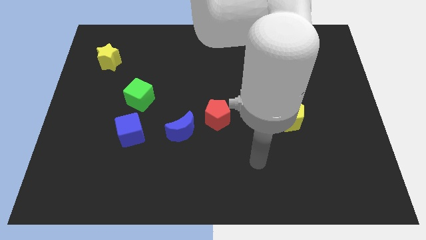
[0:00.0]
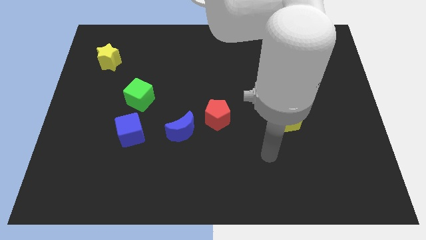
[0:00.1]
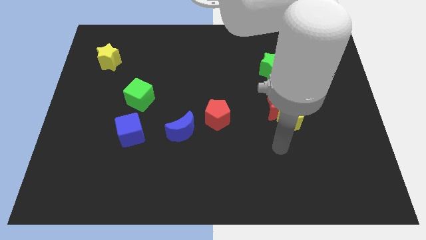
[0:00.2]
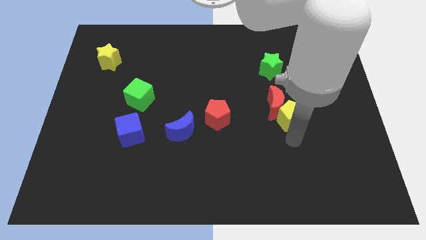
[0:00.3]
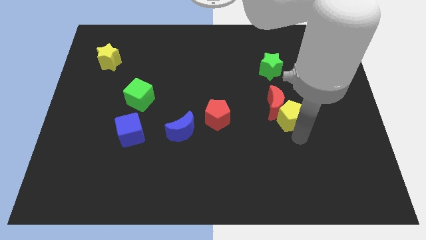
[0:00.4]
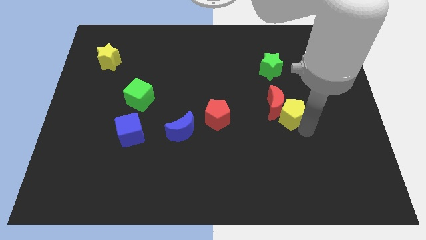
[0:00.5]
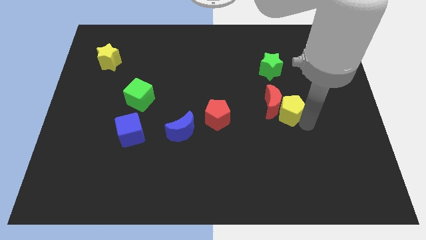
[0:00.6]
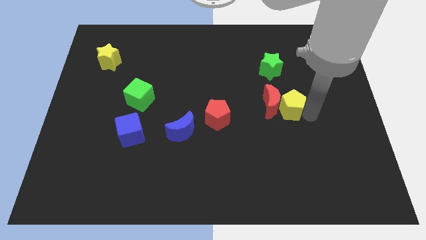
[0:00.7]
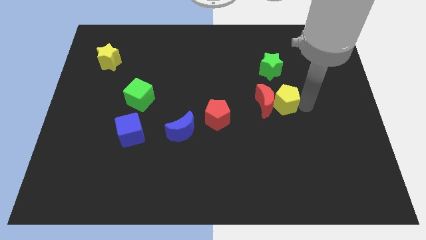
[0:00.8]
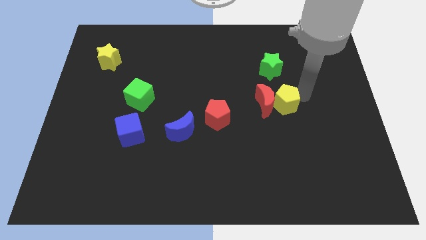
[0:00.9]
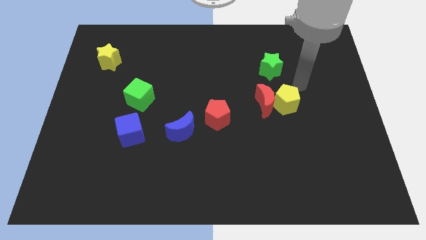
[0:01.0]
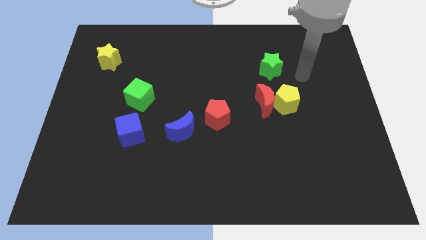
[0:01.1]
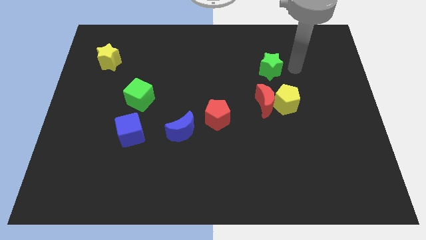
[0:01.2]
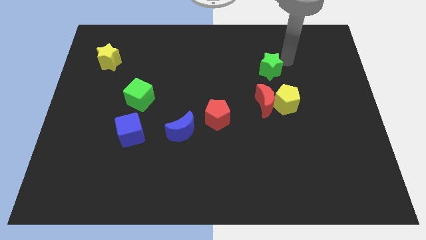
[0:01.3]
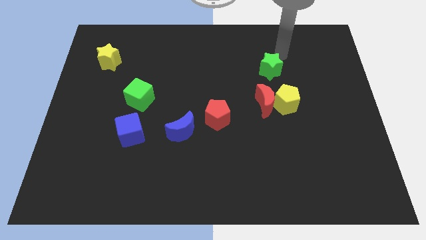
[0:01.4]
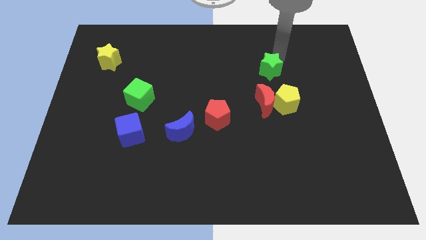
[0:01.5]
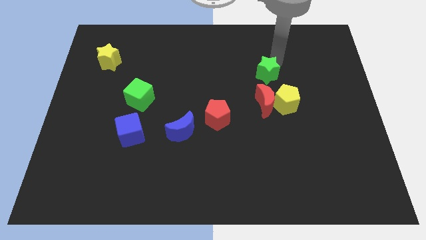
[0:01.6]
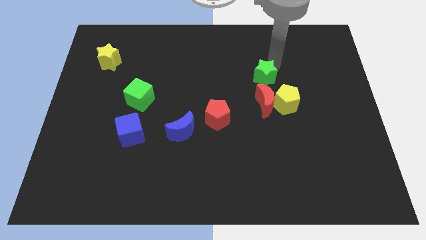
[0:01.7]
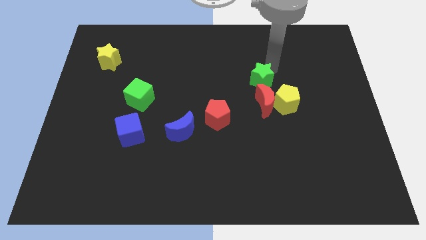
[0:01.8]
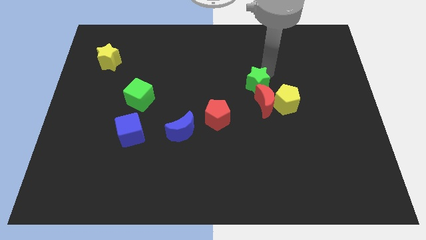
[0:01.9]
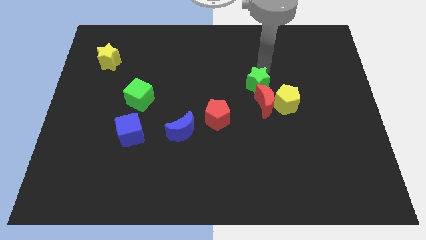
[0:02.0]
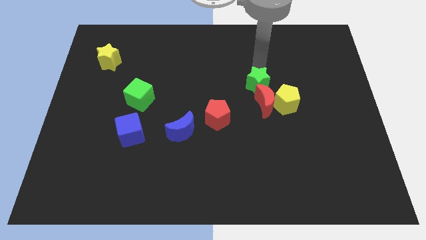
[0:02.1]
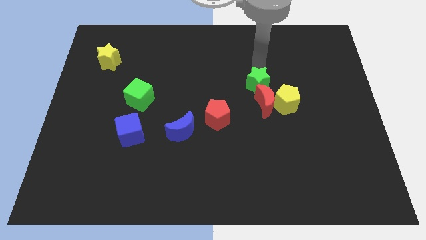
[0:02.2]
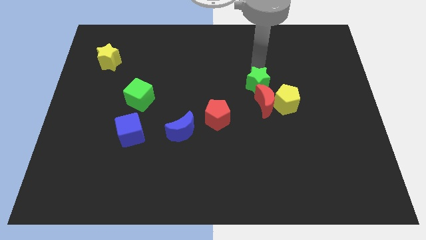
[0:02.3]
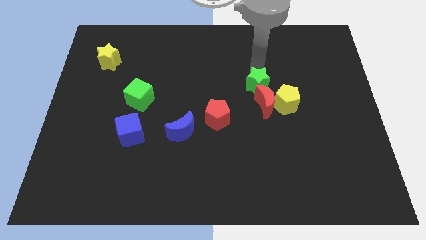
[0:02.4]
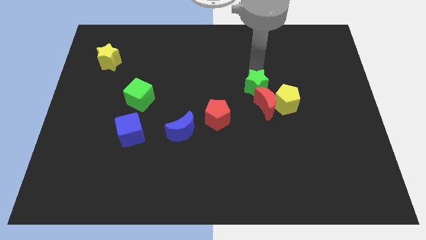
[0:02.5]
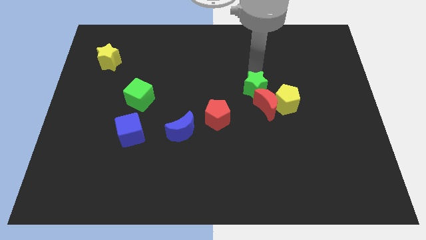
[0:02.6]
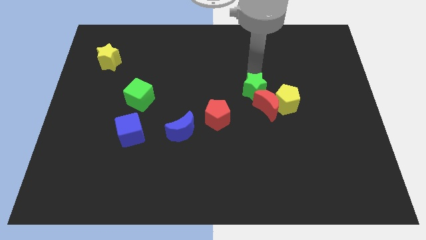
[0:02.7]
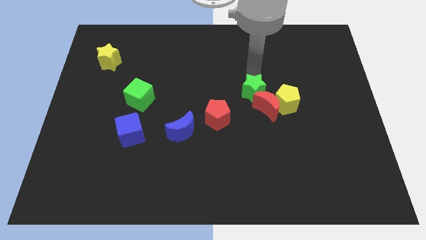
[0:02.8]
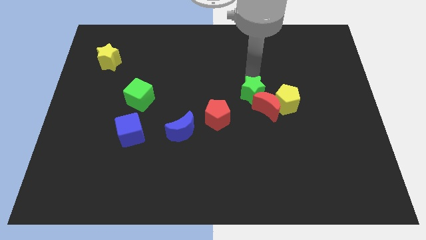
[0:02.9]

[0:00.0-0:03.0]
move the green star somewhat downwards

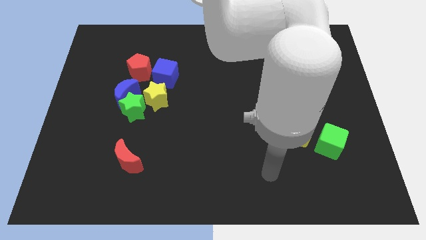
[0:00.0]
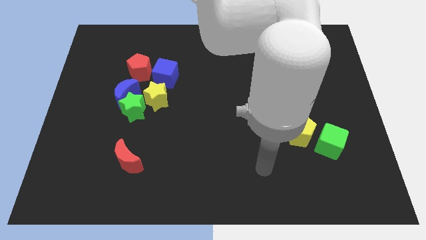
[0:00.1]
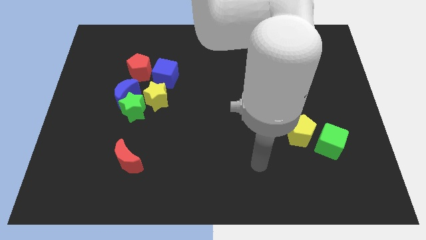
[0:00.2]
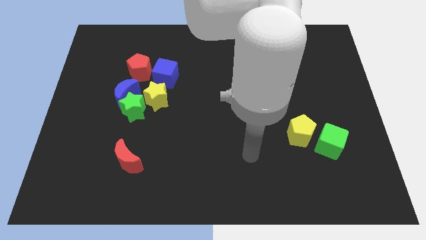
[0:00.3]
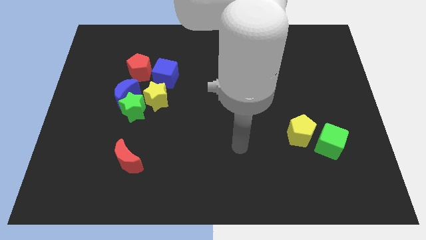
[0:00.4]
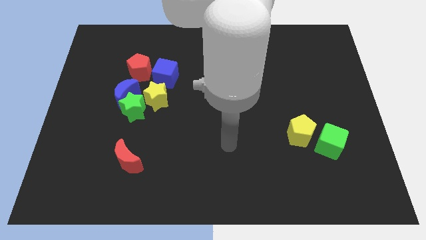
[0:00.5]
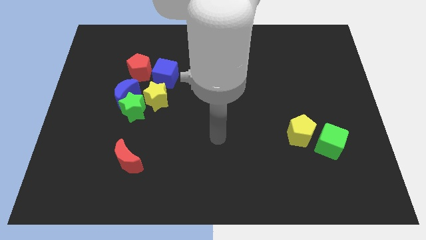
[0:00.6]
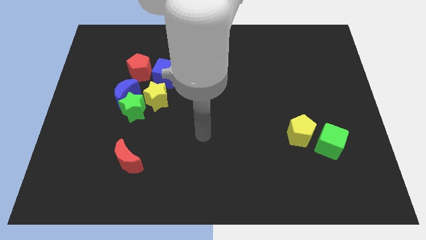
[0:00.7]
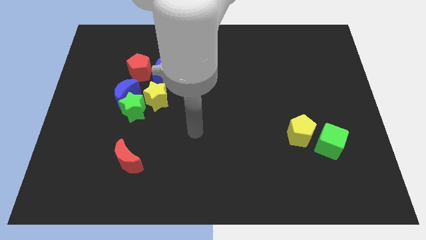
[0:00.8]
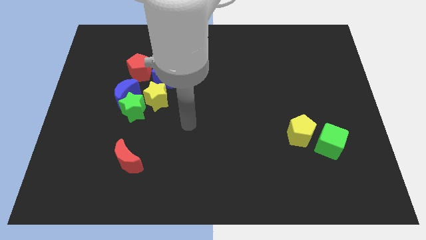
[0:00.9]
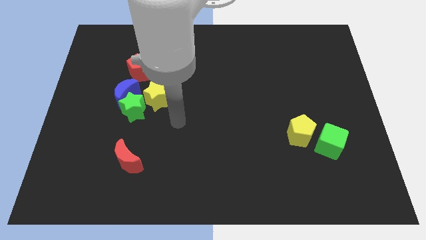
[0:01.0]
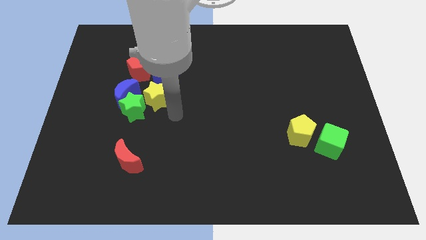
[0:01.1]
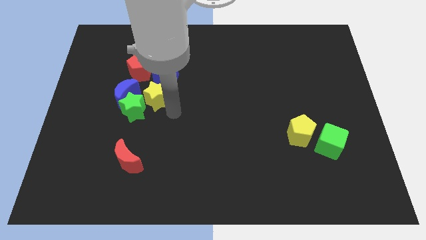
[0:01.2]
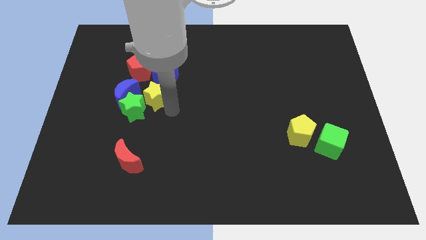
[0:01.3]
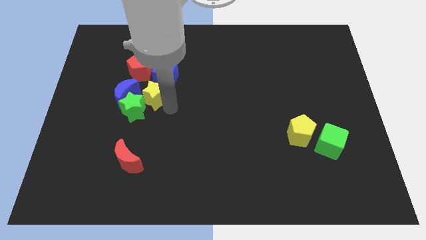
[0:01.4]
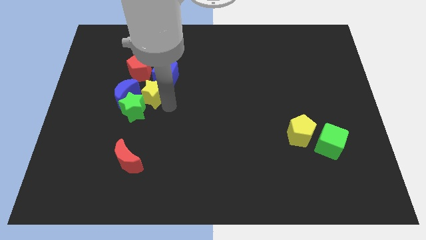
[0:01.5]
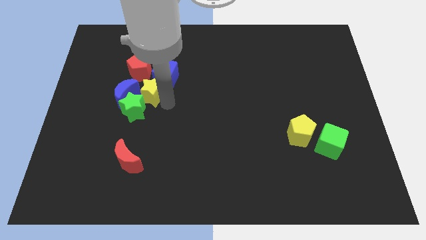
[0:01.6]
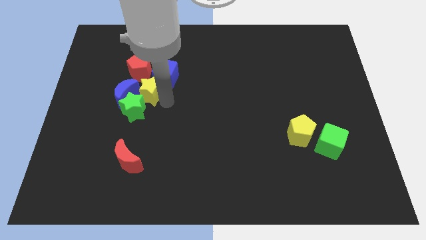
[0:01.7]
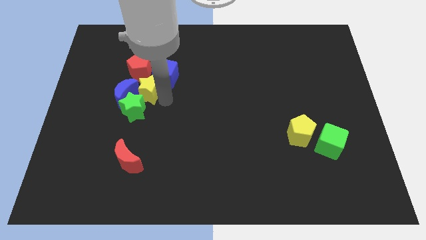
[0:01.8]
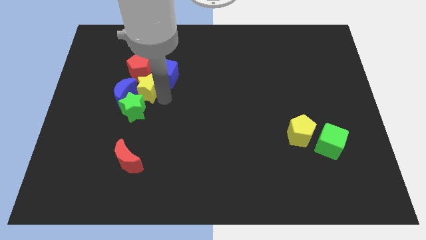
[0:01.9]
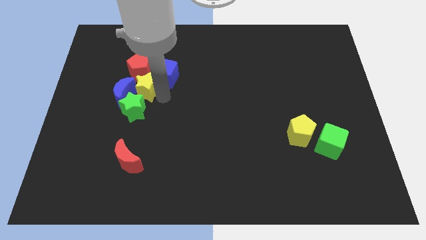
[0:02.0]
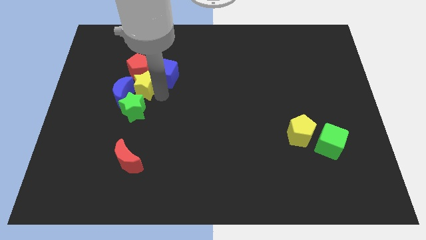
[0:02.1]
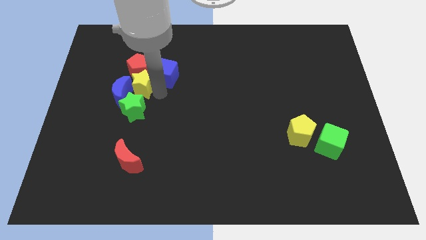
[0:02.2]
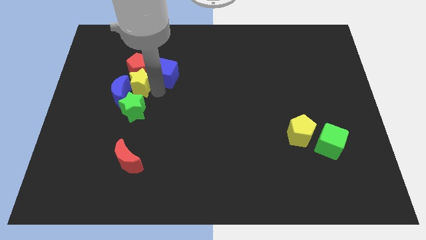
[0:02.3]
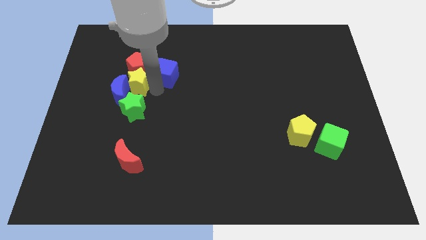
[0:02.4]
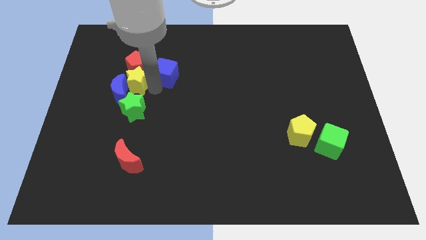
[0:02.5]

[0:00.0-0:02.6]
slightly move the yellow star upwards and left

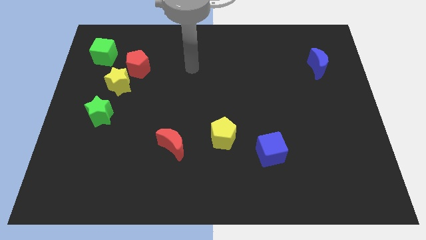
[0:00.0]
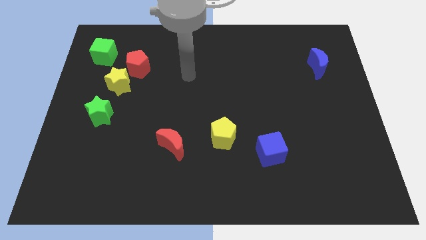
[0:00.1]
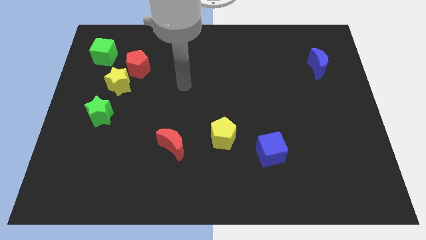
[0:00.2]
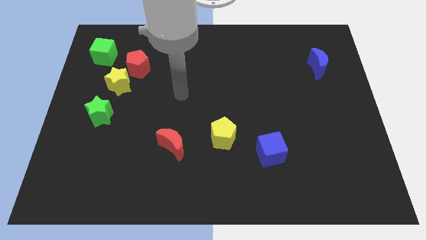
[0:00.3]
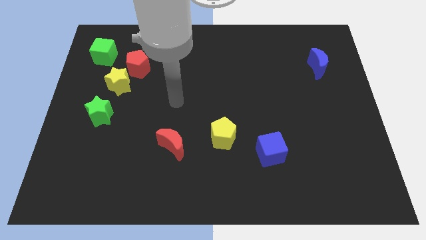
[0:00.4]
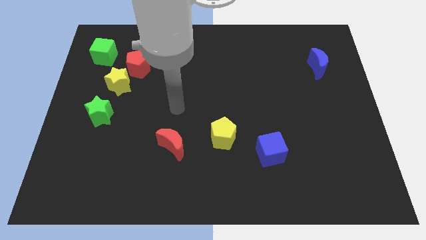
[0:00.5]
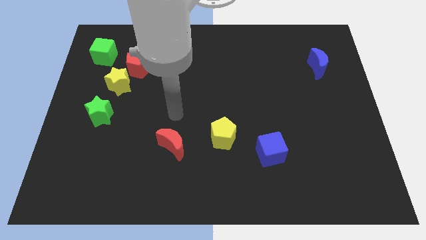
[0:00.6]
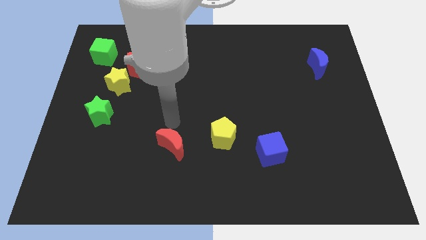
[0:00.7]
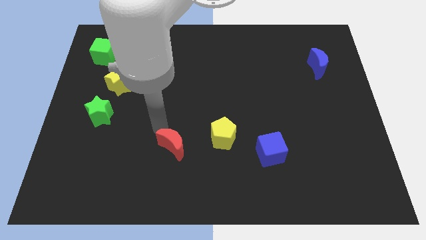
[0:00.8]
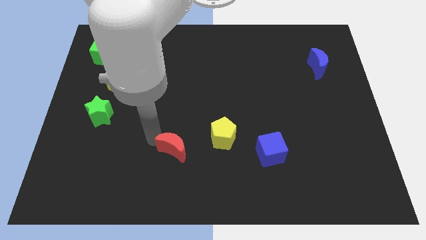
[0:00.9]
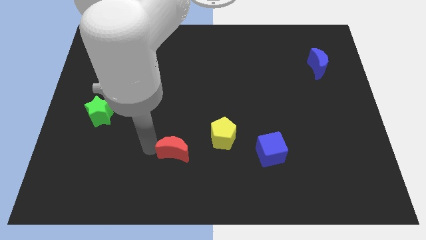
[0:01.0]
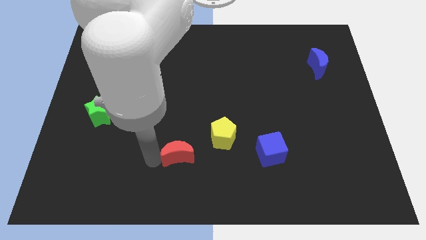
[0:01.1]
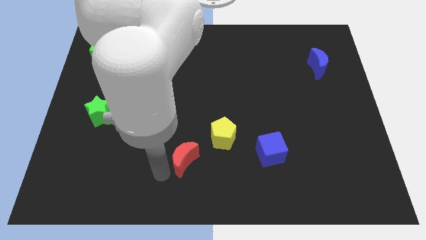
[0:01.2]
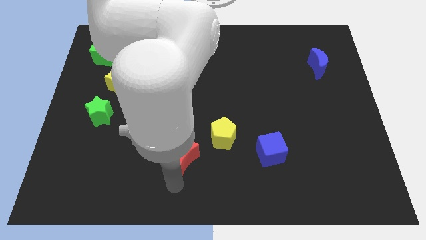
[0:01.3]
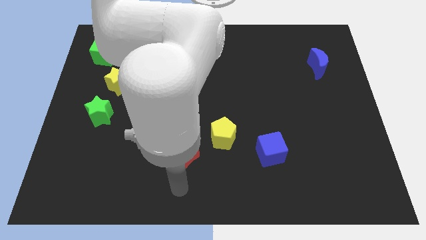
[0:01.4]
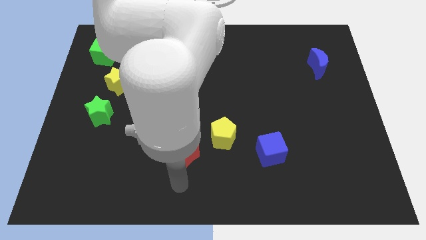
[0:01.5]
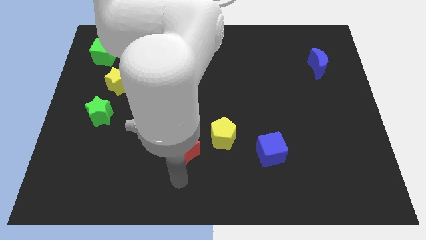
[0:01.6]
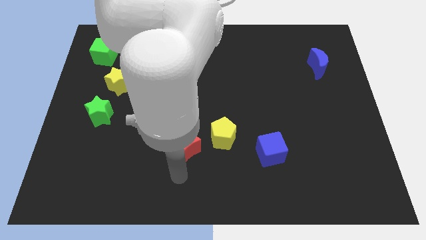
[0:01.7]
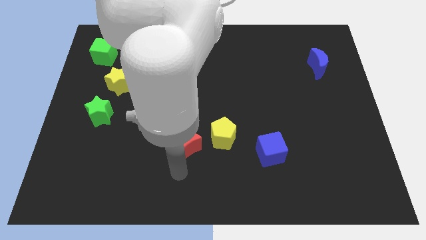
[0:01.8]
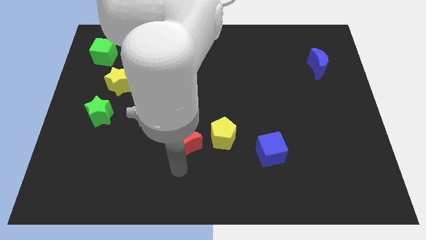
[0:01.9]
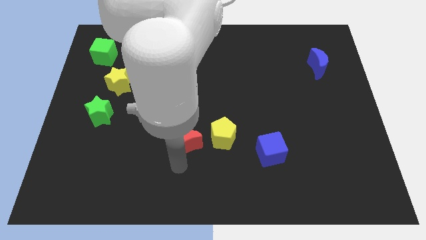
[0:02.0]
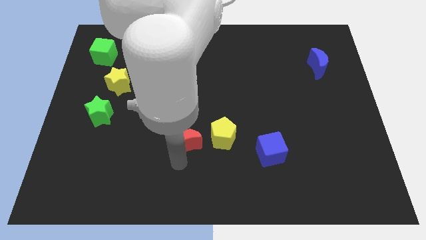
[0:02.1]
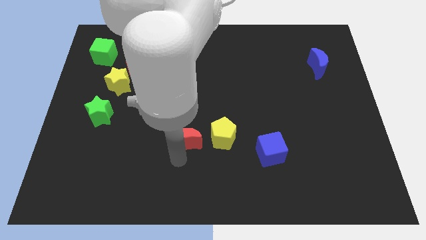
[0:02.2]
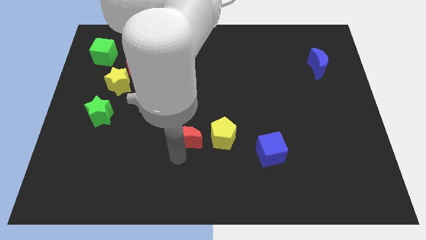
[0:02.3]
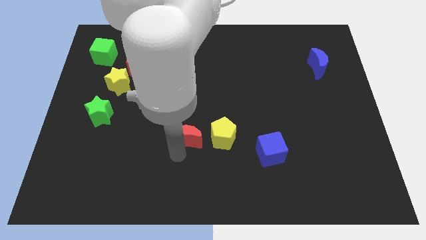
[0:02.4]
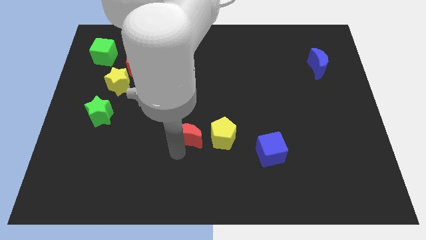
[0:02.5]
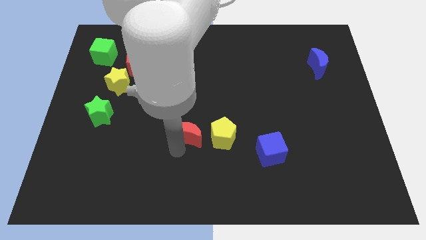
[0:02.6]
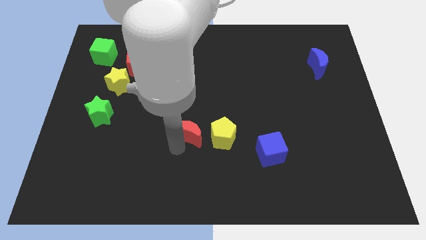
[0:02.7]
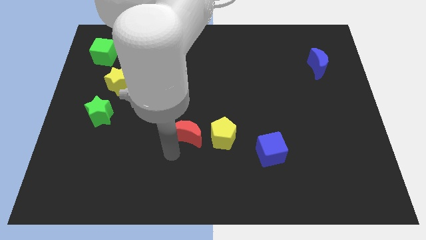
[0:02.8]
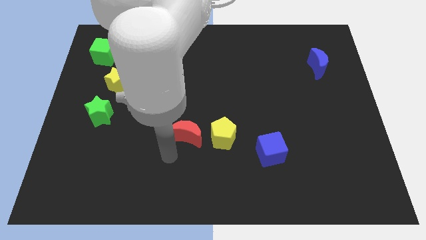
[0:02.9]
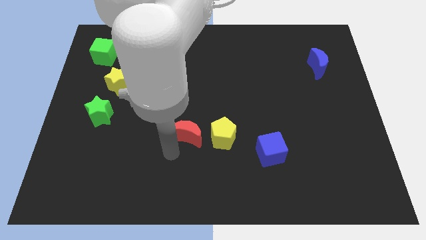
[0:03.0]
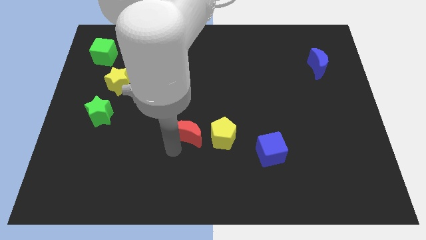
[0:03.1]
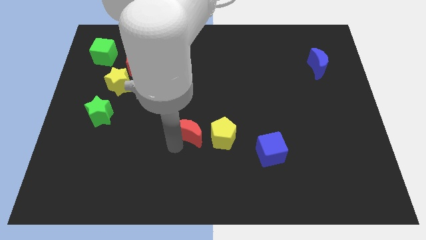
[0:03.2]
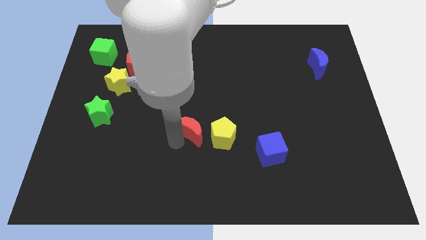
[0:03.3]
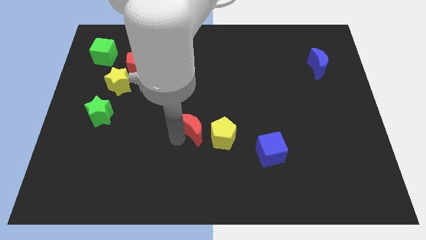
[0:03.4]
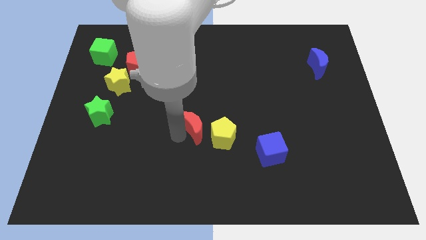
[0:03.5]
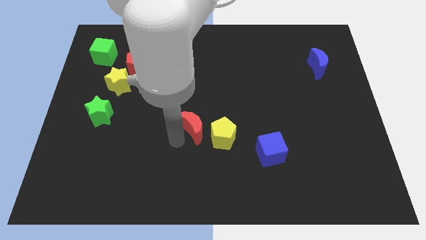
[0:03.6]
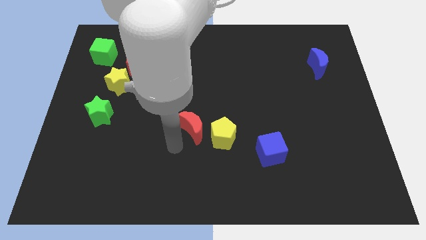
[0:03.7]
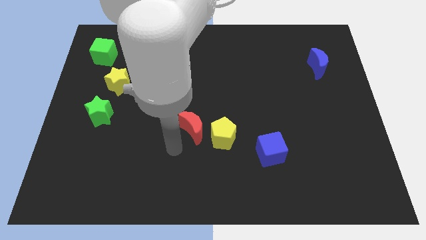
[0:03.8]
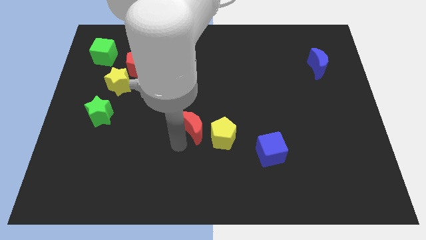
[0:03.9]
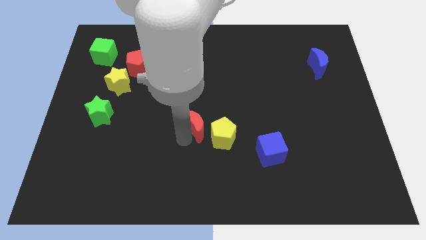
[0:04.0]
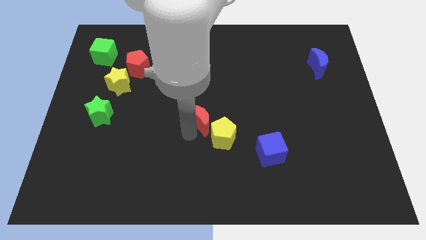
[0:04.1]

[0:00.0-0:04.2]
slide the red moon slightly upwards and right diagonally
